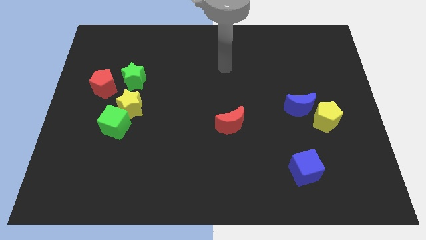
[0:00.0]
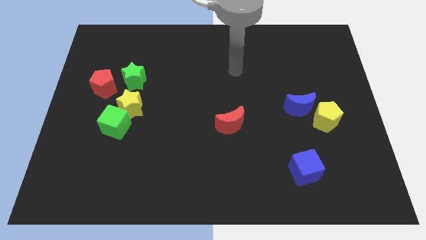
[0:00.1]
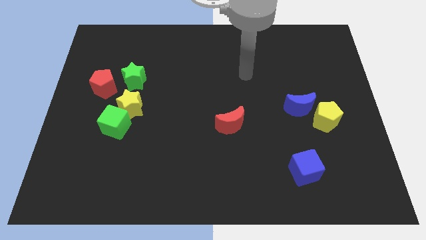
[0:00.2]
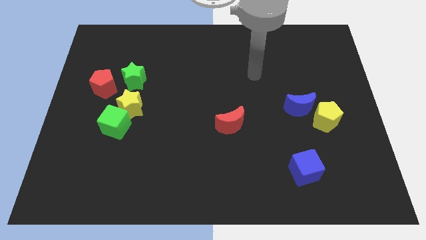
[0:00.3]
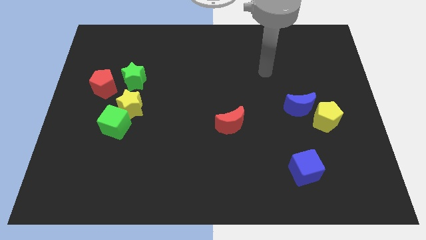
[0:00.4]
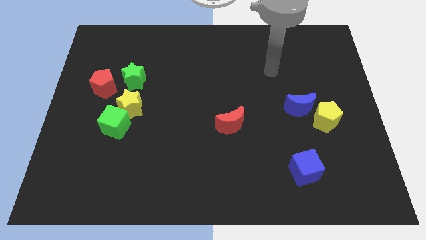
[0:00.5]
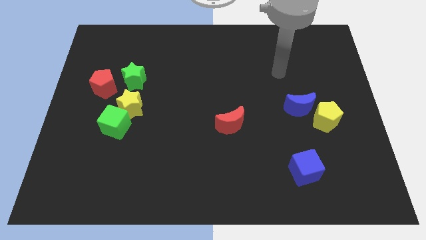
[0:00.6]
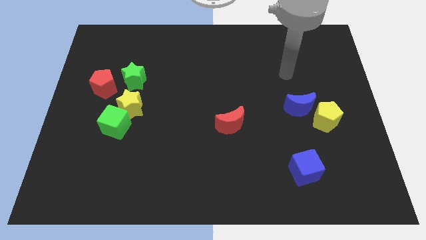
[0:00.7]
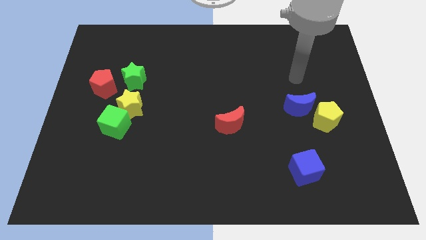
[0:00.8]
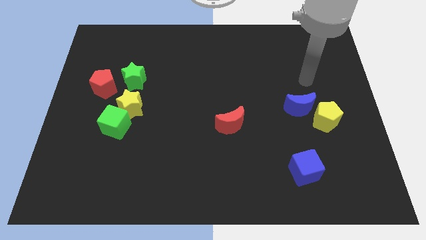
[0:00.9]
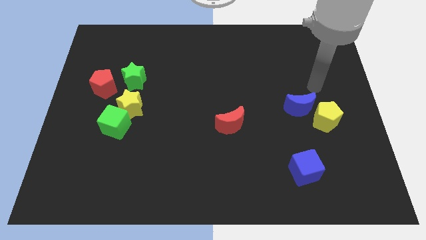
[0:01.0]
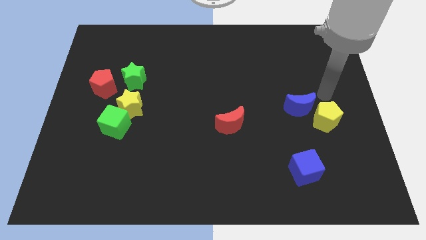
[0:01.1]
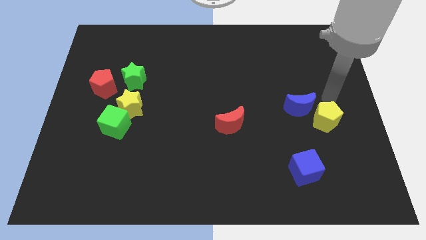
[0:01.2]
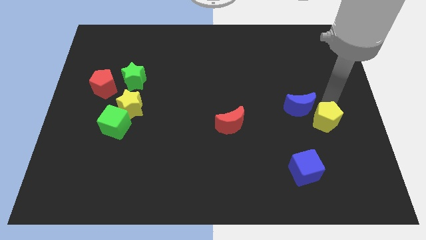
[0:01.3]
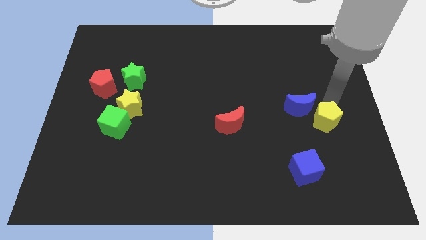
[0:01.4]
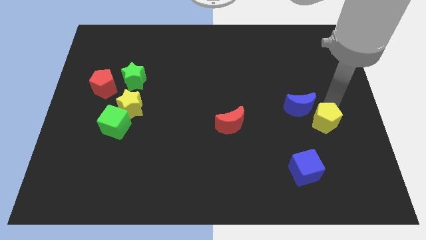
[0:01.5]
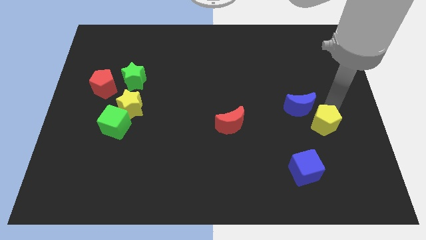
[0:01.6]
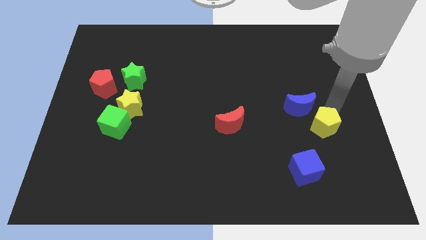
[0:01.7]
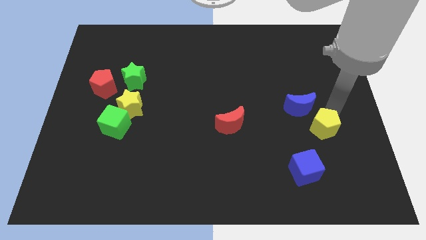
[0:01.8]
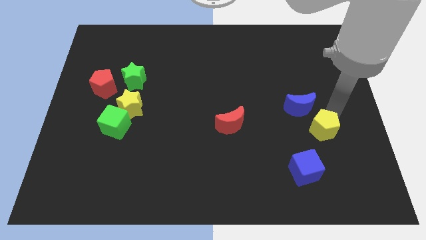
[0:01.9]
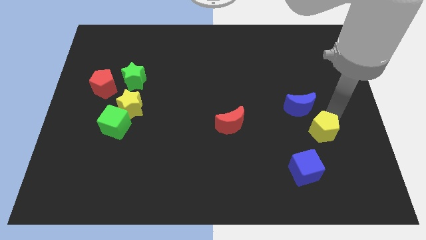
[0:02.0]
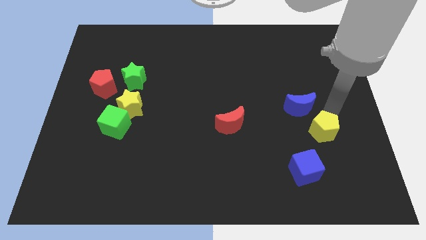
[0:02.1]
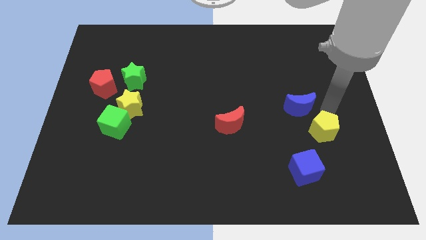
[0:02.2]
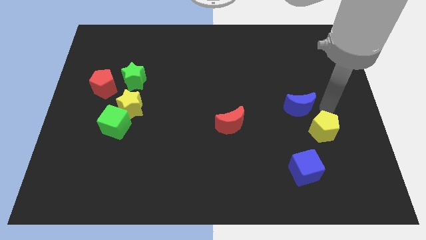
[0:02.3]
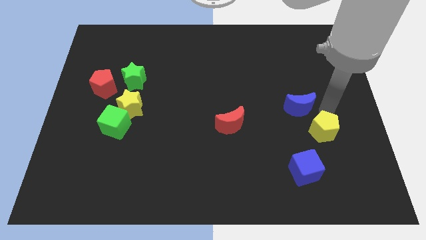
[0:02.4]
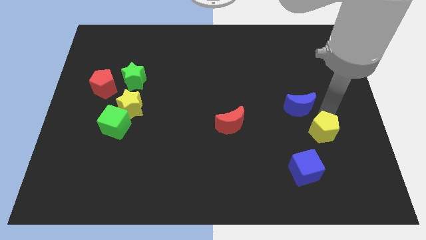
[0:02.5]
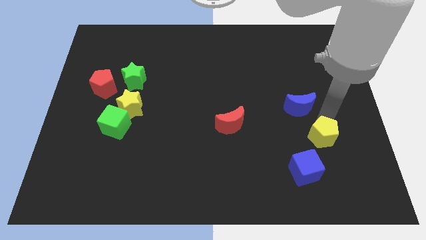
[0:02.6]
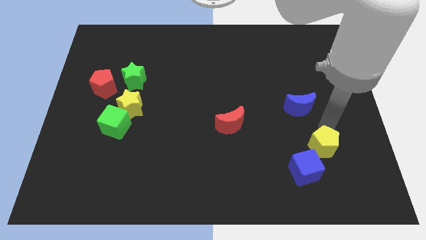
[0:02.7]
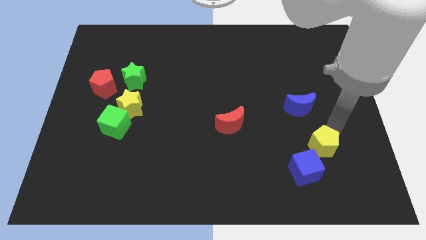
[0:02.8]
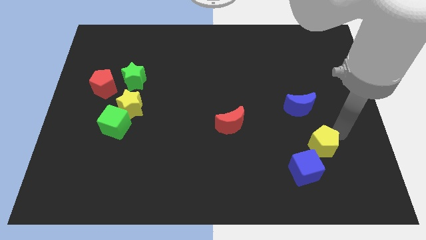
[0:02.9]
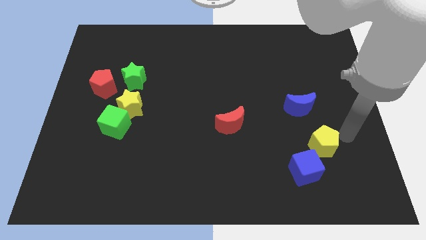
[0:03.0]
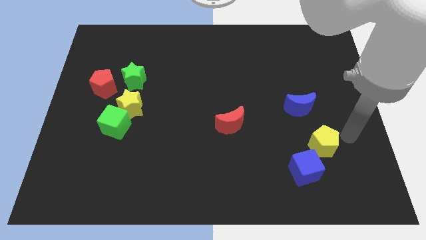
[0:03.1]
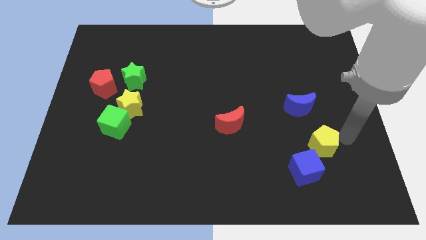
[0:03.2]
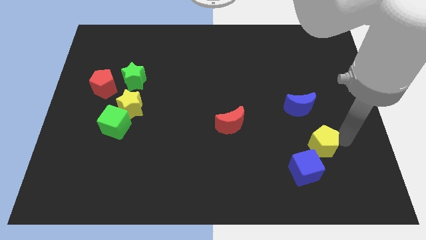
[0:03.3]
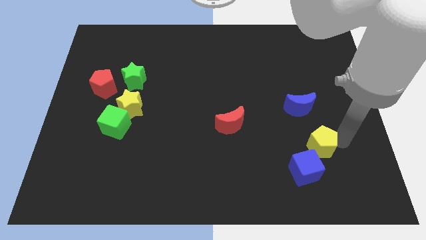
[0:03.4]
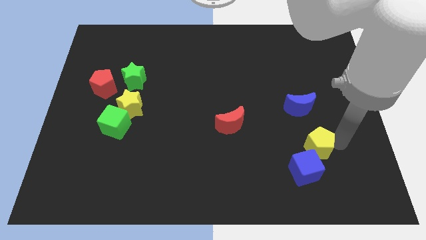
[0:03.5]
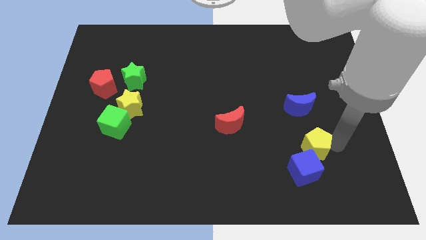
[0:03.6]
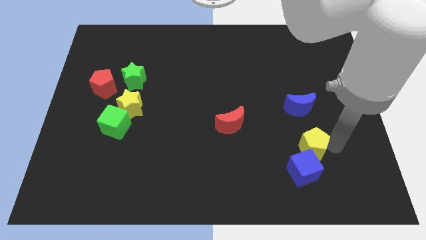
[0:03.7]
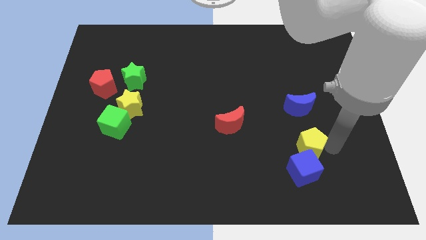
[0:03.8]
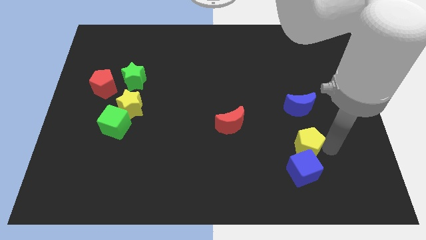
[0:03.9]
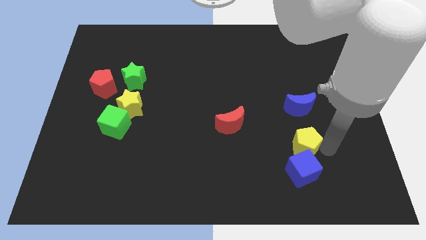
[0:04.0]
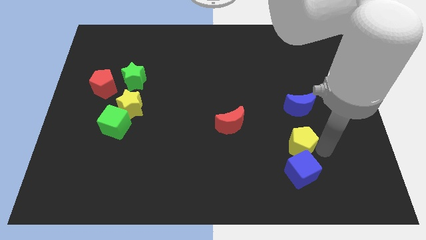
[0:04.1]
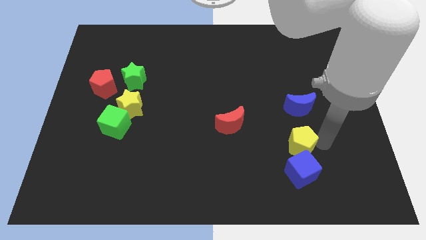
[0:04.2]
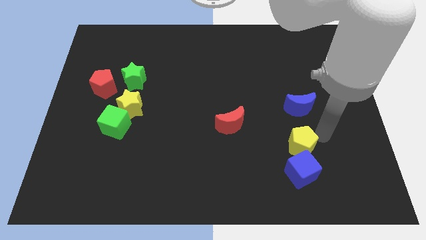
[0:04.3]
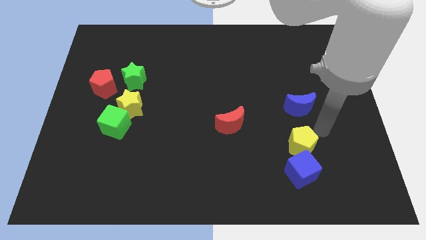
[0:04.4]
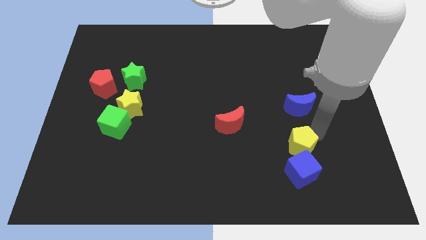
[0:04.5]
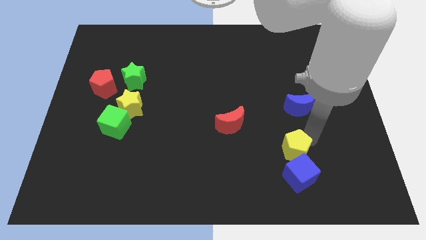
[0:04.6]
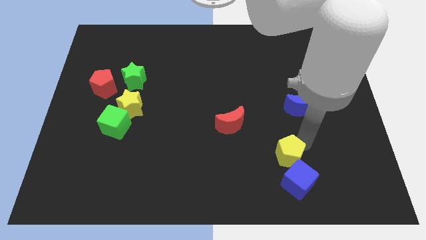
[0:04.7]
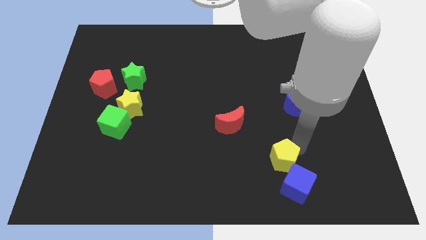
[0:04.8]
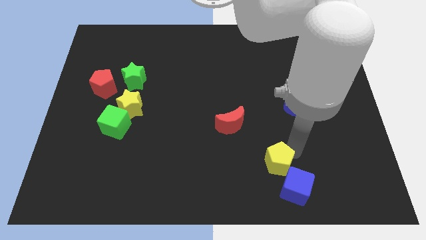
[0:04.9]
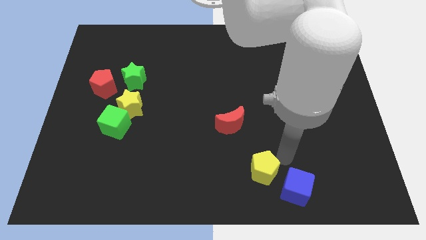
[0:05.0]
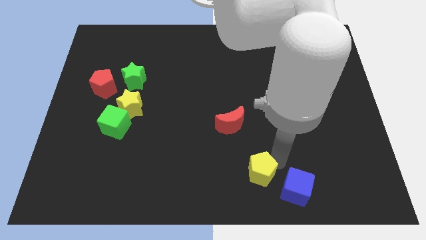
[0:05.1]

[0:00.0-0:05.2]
push the yellow pentagon to the bottom

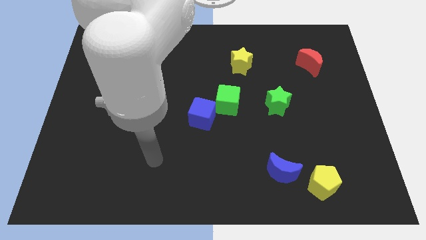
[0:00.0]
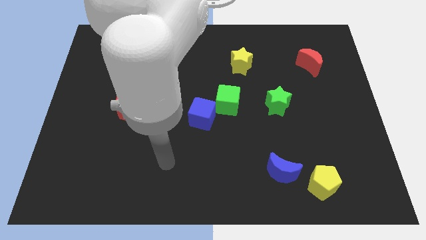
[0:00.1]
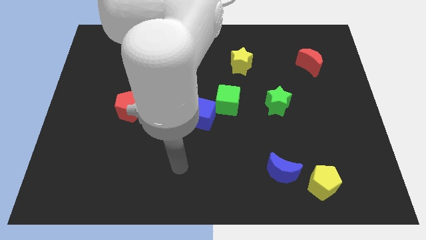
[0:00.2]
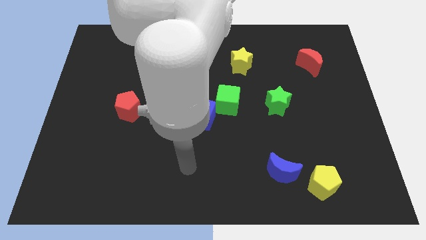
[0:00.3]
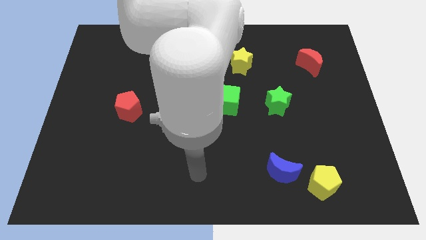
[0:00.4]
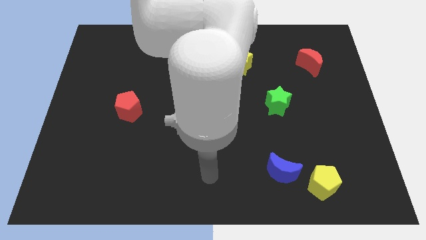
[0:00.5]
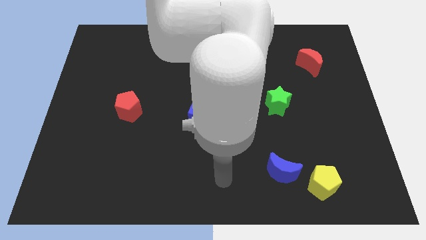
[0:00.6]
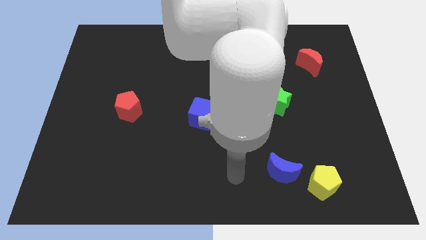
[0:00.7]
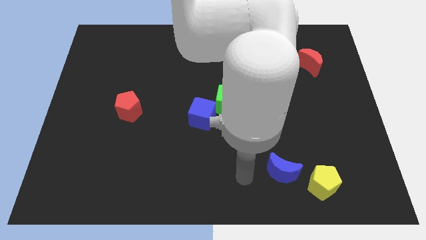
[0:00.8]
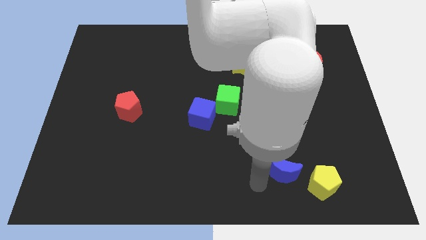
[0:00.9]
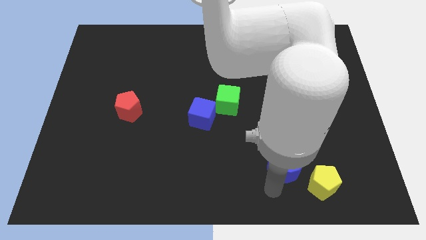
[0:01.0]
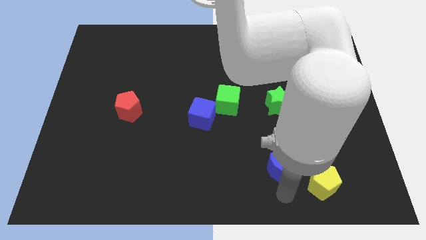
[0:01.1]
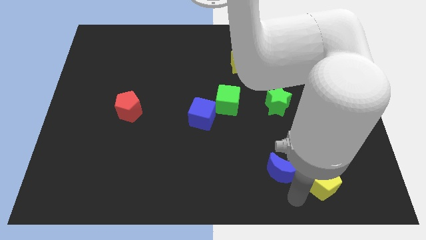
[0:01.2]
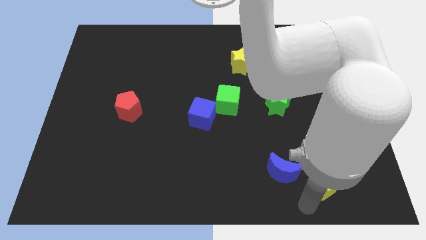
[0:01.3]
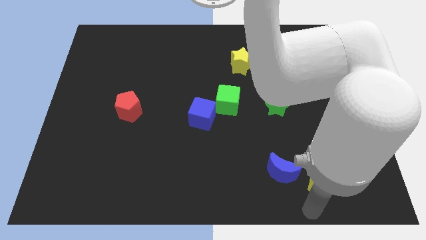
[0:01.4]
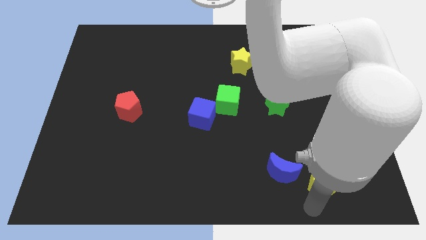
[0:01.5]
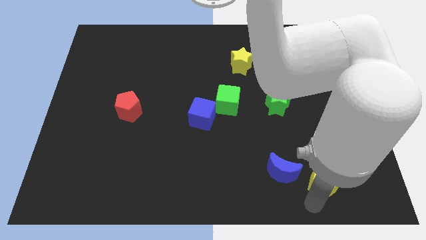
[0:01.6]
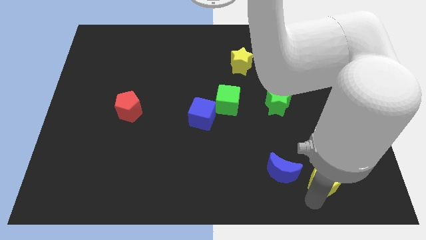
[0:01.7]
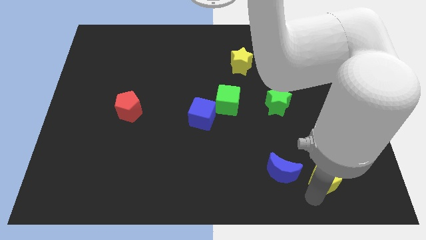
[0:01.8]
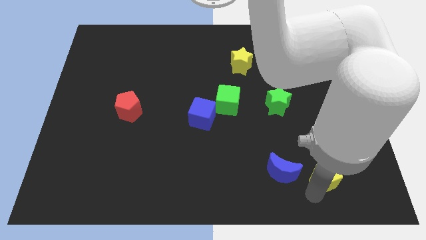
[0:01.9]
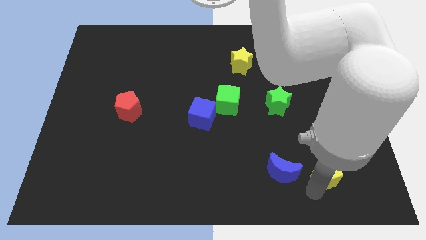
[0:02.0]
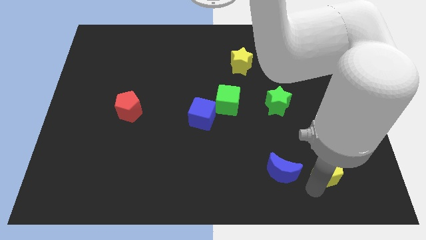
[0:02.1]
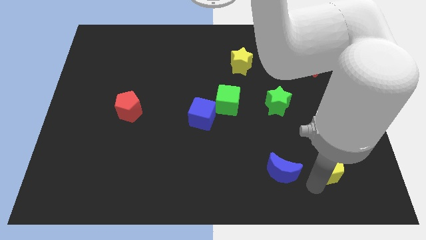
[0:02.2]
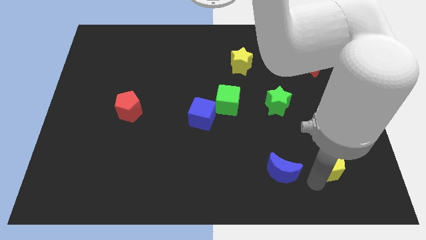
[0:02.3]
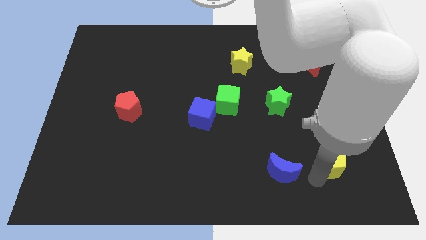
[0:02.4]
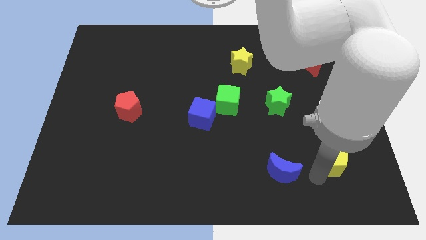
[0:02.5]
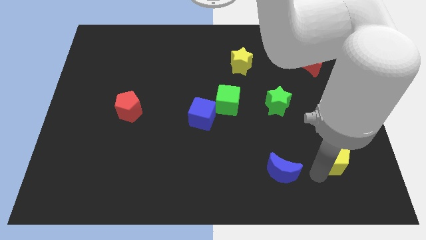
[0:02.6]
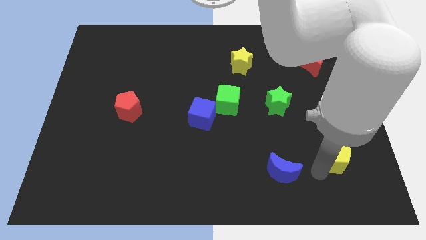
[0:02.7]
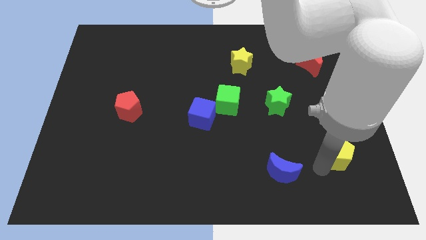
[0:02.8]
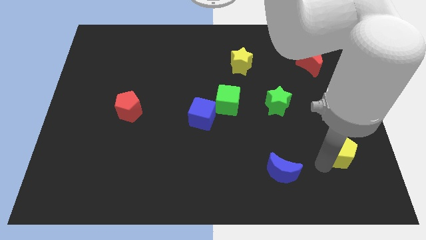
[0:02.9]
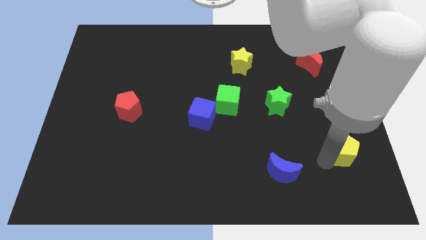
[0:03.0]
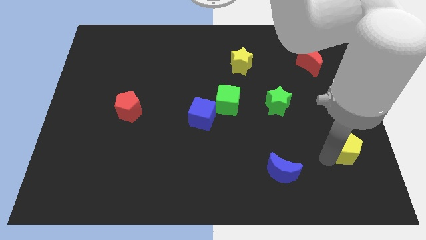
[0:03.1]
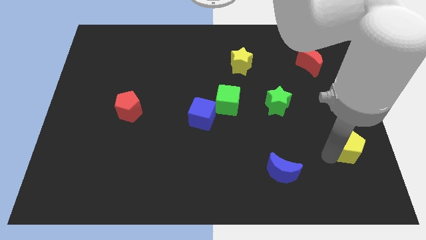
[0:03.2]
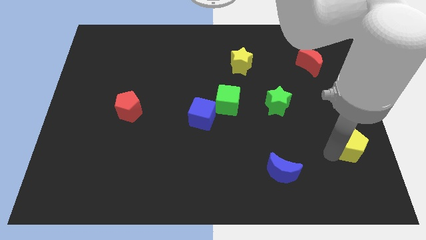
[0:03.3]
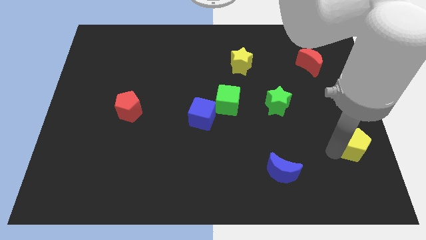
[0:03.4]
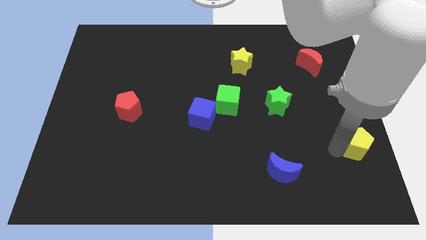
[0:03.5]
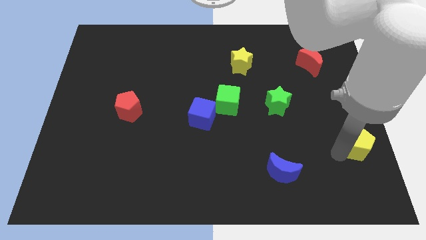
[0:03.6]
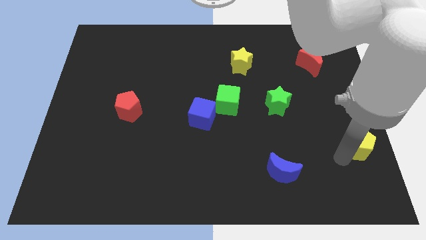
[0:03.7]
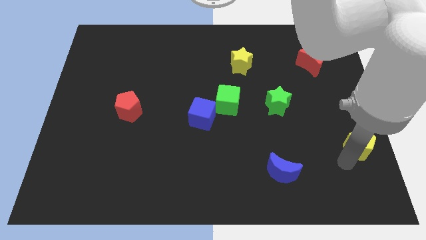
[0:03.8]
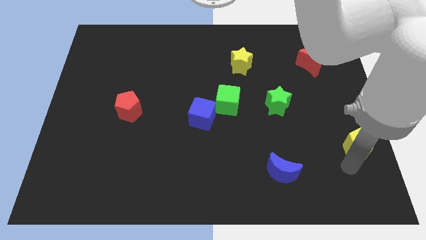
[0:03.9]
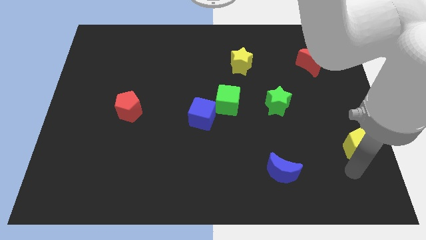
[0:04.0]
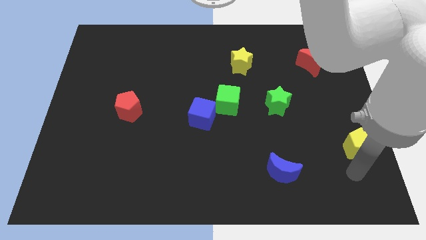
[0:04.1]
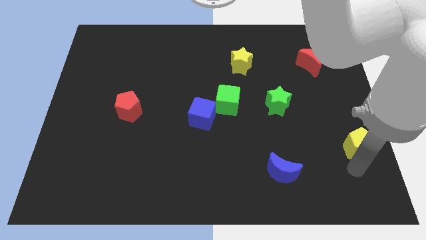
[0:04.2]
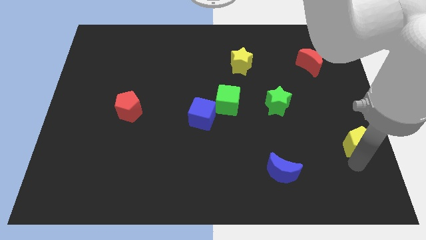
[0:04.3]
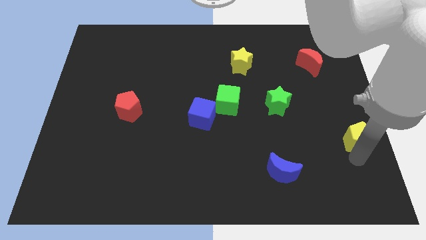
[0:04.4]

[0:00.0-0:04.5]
slide the yellow pentagon to the right side
